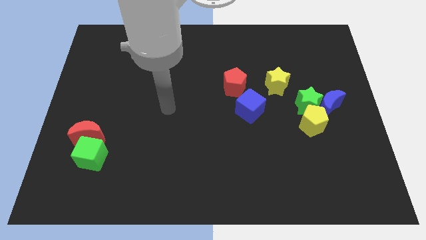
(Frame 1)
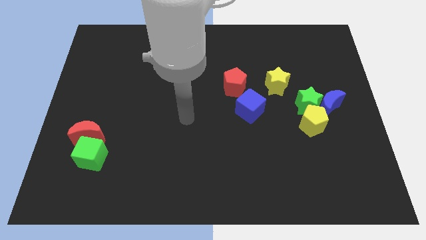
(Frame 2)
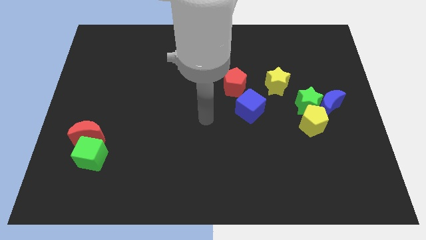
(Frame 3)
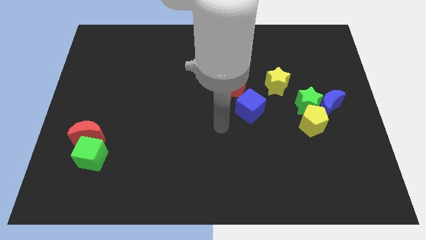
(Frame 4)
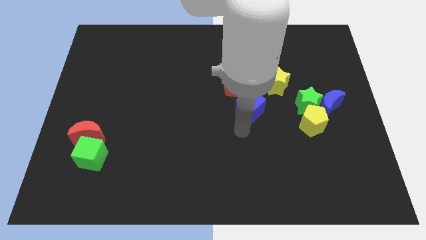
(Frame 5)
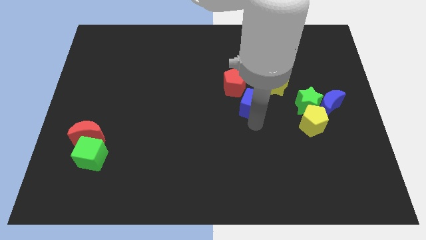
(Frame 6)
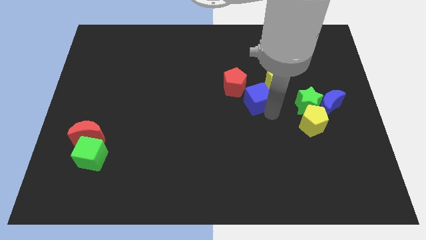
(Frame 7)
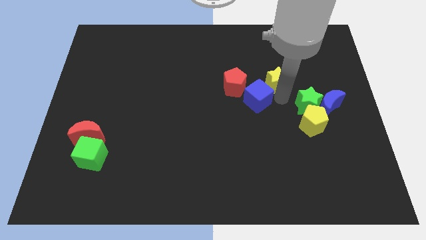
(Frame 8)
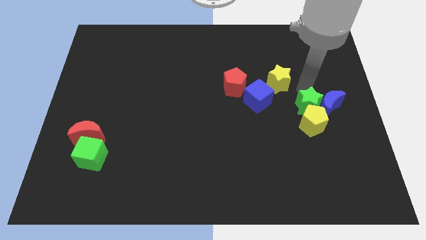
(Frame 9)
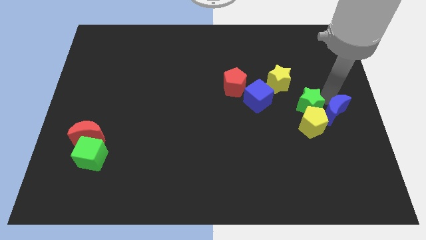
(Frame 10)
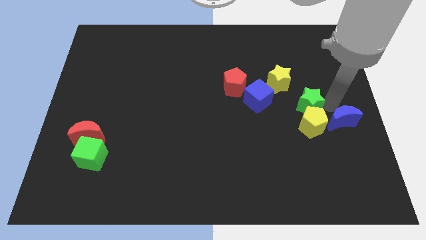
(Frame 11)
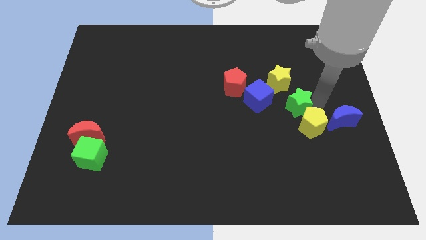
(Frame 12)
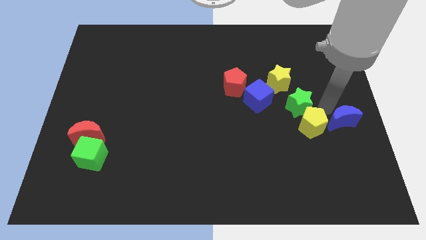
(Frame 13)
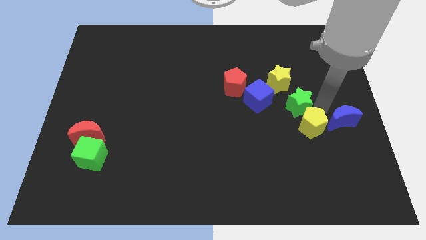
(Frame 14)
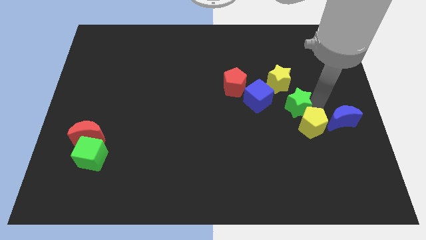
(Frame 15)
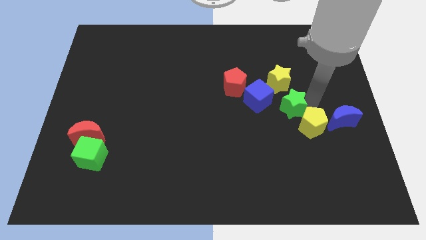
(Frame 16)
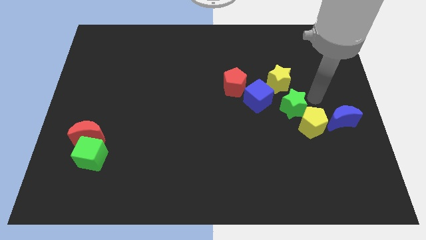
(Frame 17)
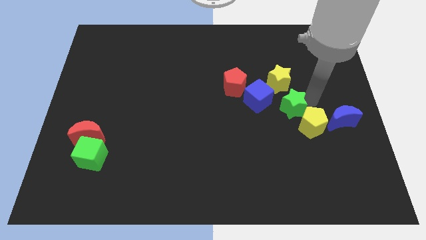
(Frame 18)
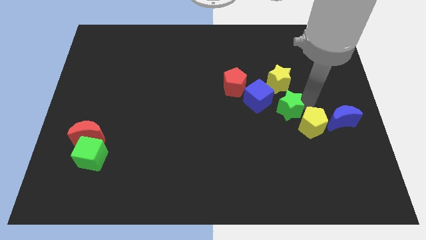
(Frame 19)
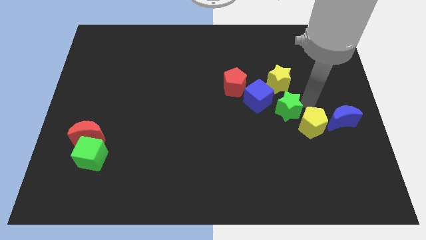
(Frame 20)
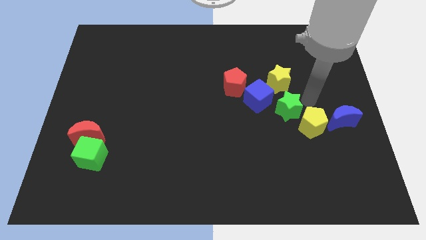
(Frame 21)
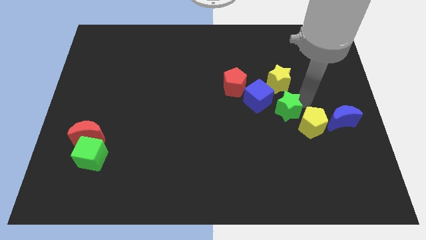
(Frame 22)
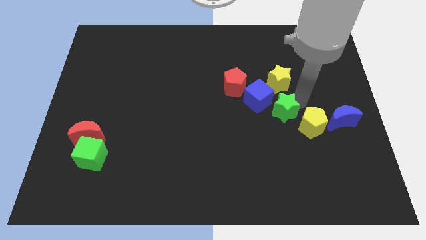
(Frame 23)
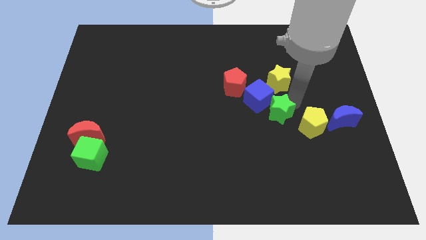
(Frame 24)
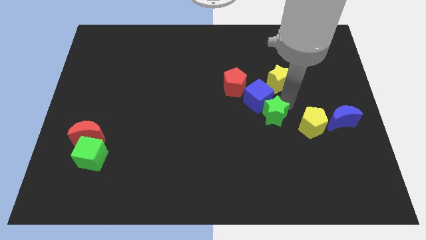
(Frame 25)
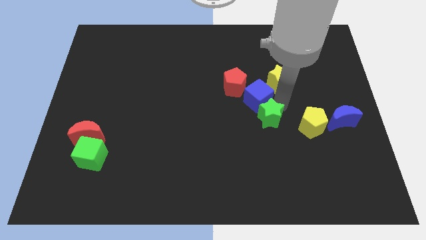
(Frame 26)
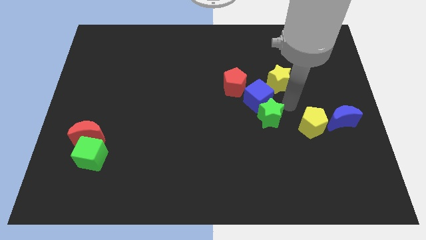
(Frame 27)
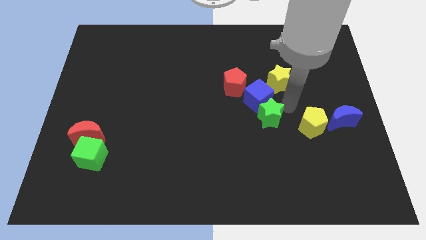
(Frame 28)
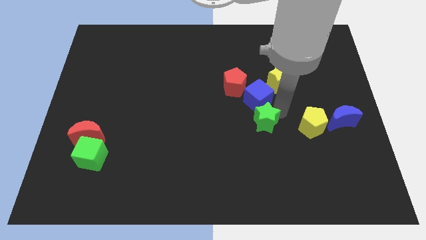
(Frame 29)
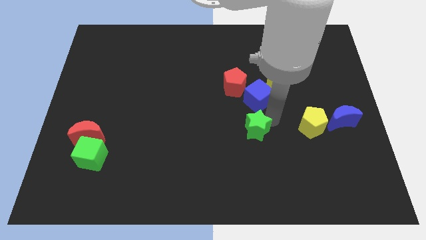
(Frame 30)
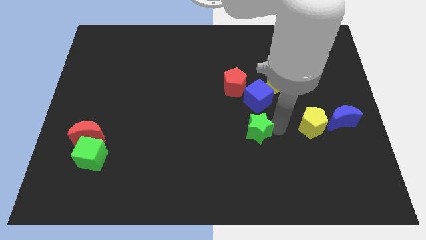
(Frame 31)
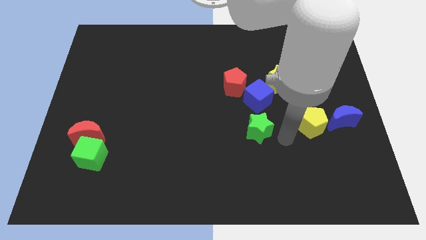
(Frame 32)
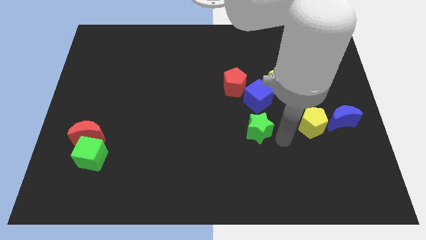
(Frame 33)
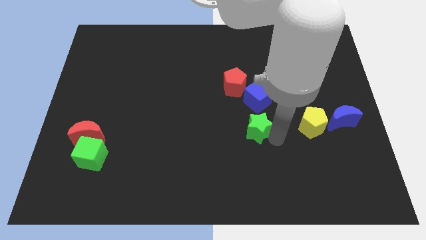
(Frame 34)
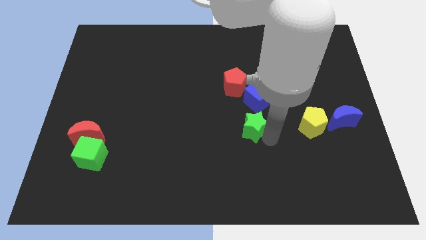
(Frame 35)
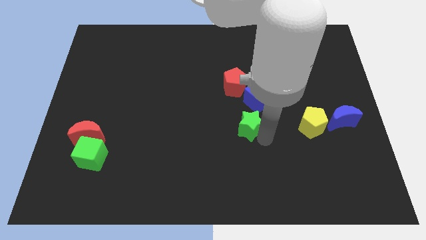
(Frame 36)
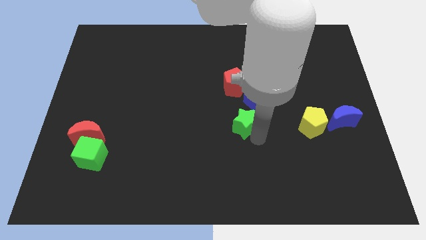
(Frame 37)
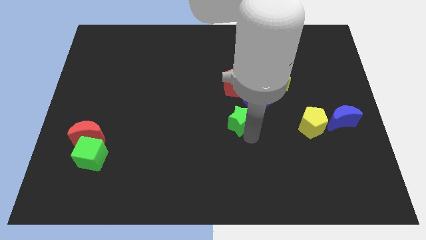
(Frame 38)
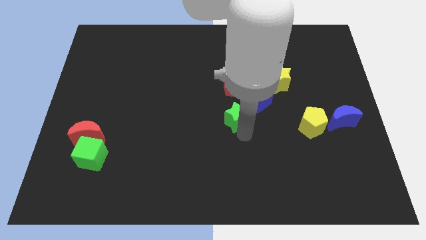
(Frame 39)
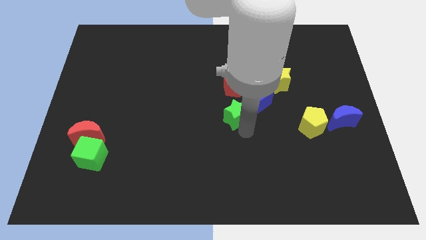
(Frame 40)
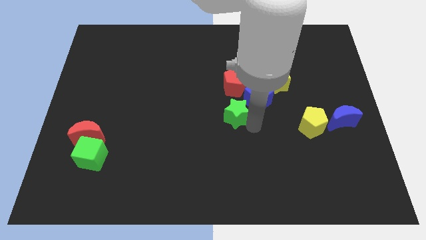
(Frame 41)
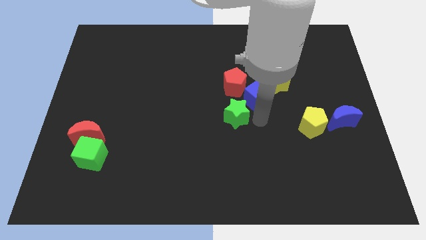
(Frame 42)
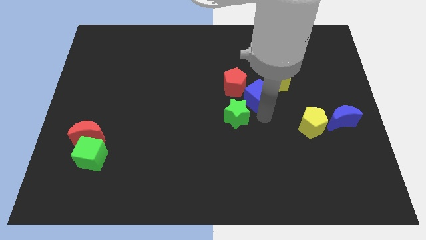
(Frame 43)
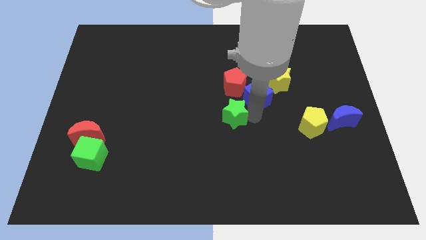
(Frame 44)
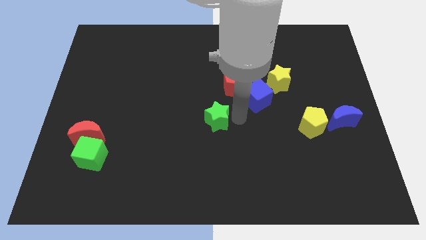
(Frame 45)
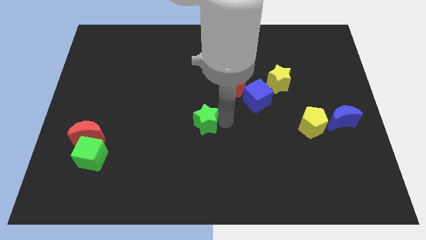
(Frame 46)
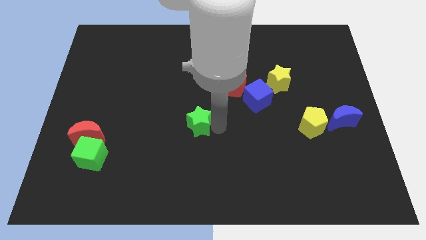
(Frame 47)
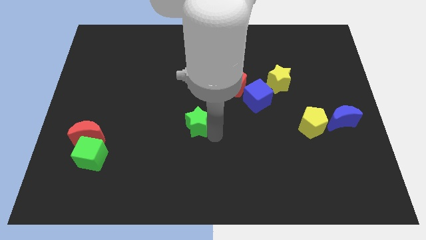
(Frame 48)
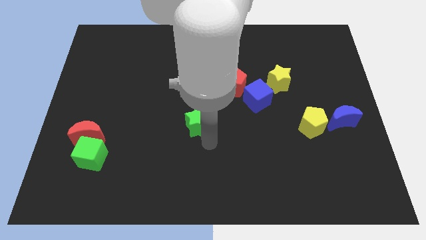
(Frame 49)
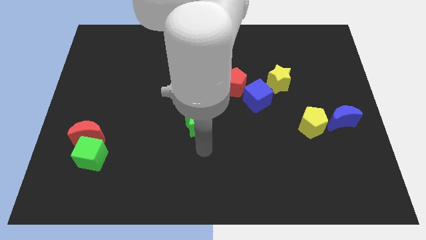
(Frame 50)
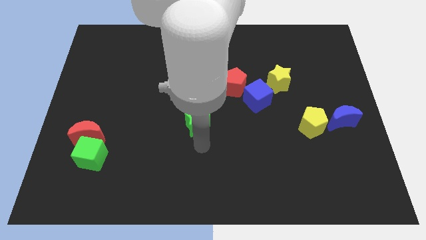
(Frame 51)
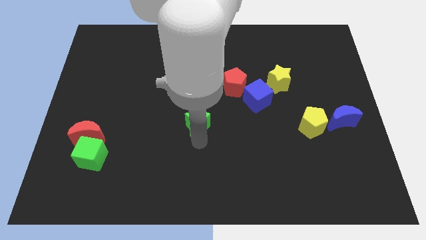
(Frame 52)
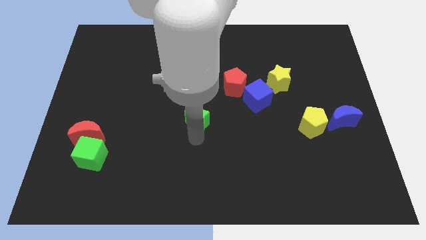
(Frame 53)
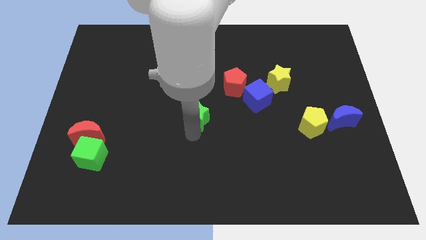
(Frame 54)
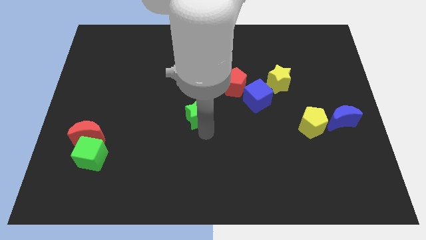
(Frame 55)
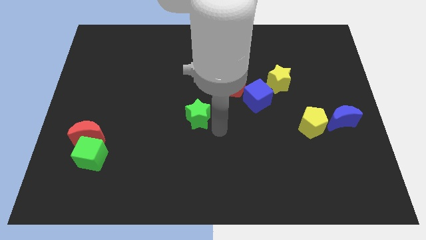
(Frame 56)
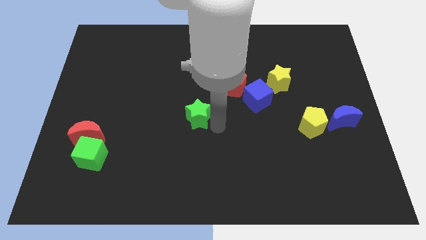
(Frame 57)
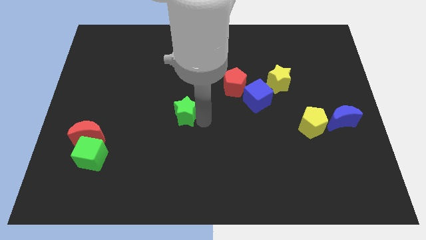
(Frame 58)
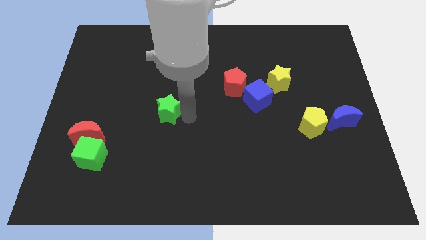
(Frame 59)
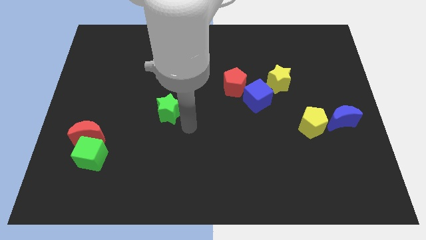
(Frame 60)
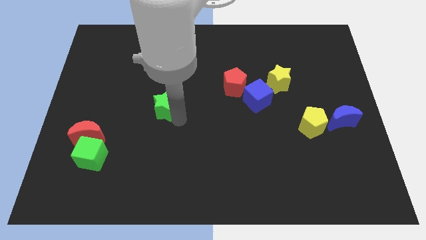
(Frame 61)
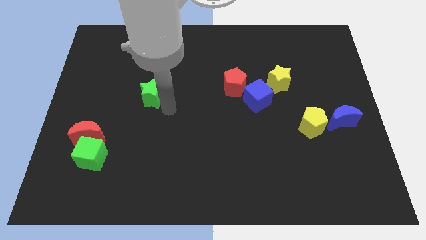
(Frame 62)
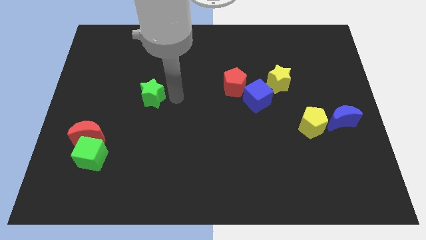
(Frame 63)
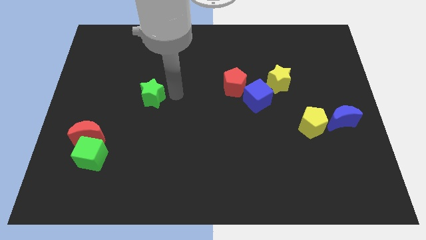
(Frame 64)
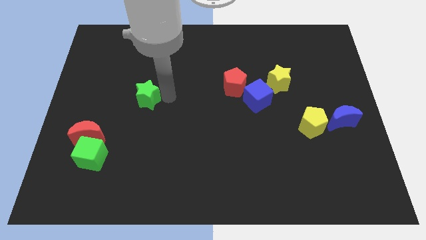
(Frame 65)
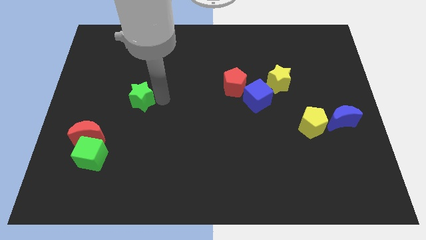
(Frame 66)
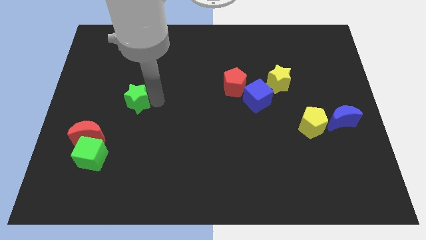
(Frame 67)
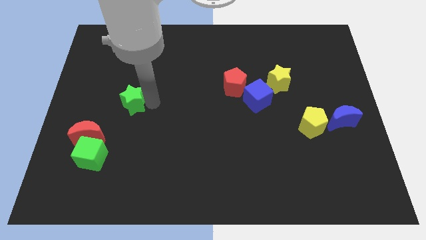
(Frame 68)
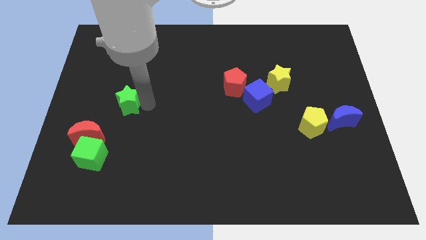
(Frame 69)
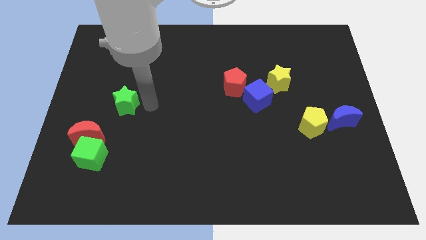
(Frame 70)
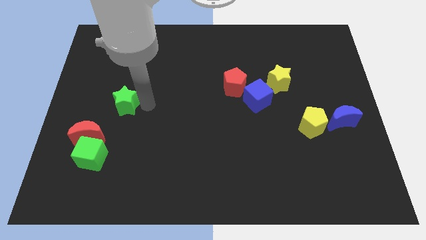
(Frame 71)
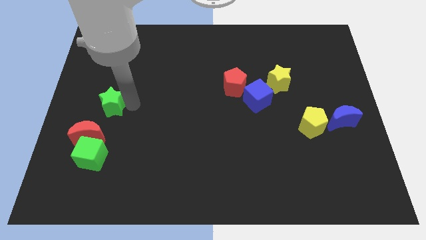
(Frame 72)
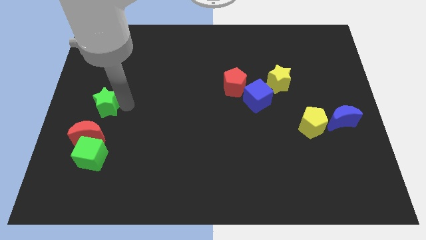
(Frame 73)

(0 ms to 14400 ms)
push the green star to the center left
